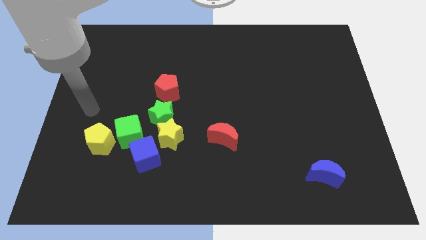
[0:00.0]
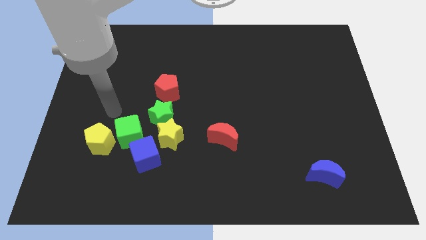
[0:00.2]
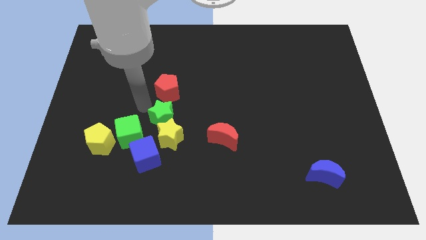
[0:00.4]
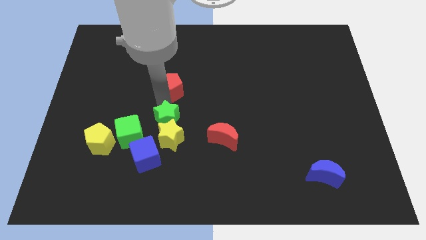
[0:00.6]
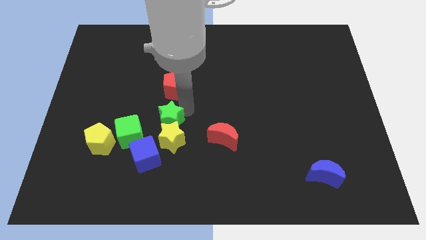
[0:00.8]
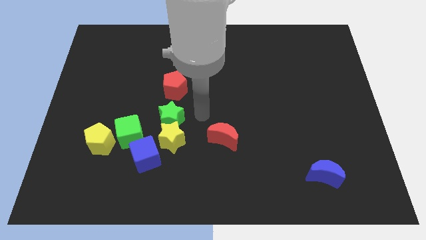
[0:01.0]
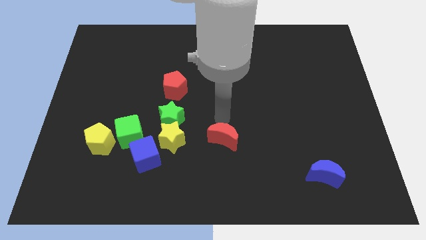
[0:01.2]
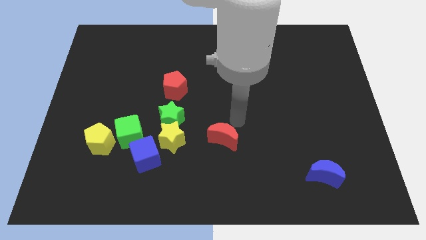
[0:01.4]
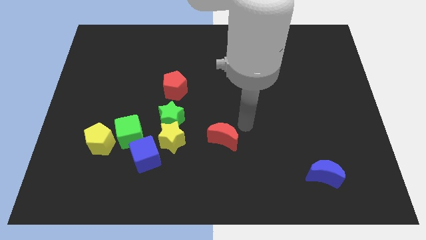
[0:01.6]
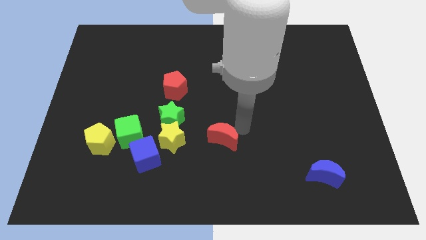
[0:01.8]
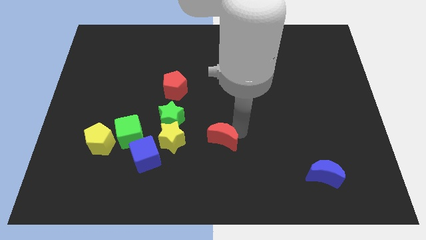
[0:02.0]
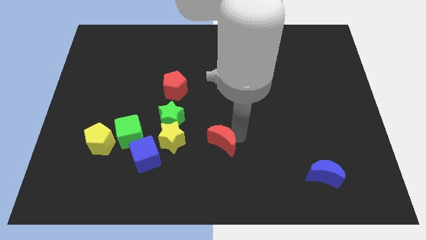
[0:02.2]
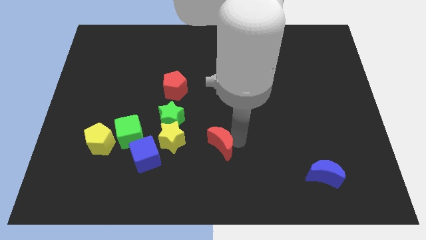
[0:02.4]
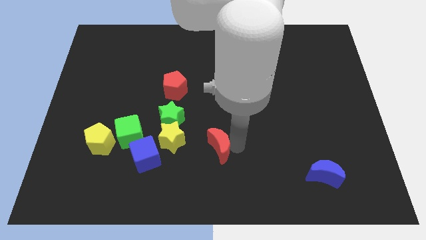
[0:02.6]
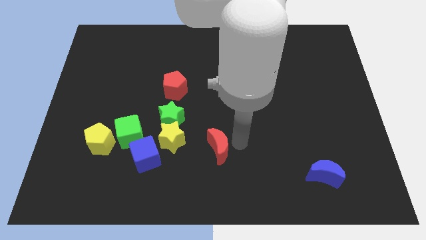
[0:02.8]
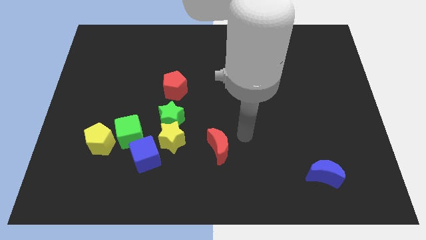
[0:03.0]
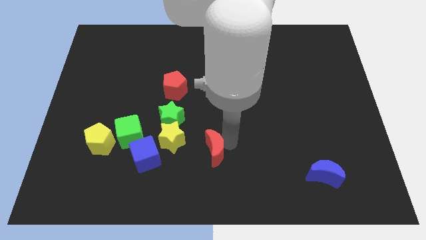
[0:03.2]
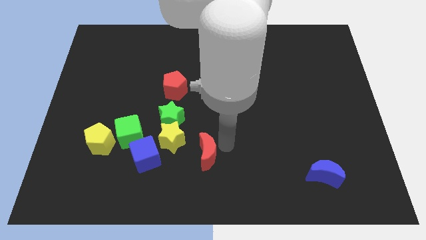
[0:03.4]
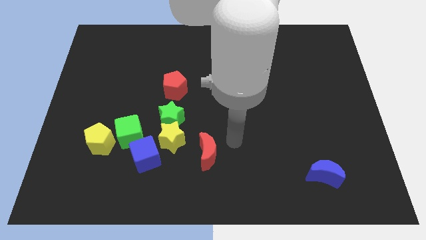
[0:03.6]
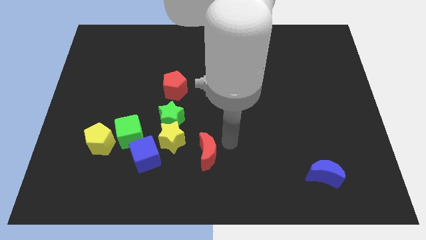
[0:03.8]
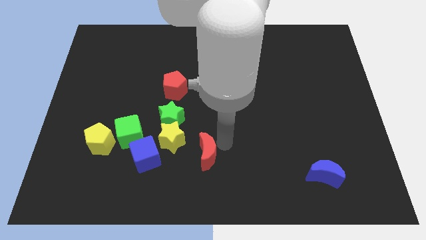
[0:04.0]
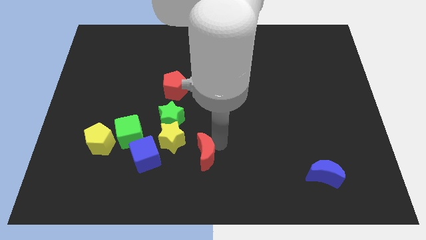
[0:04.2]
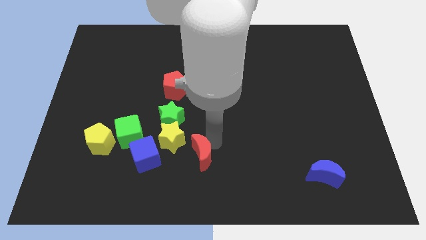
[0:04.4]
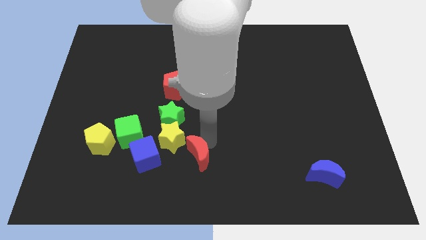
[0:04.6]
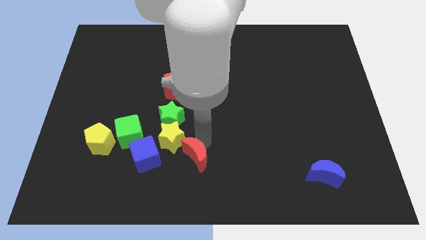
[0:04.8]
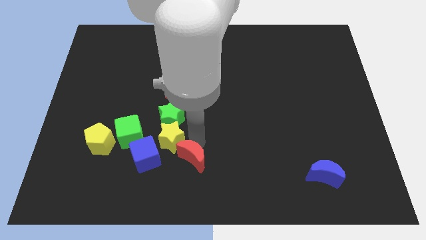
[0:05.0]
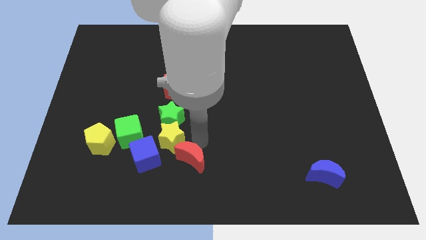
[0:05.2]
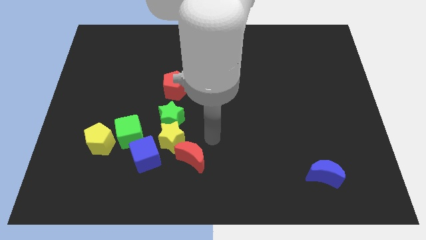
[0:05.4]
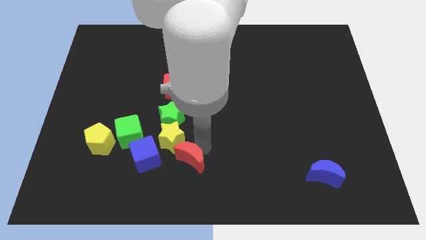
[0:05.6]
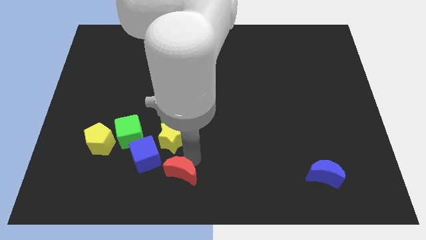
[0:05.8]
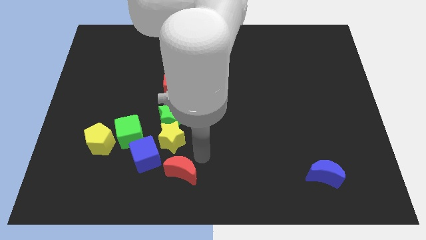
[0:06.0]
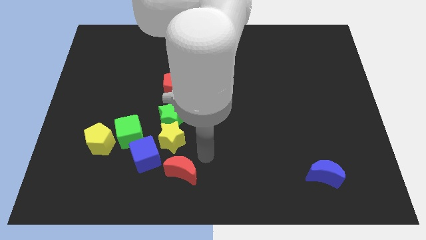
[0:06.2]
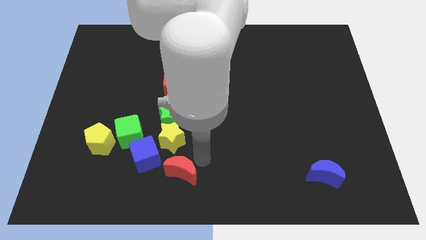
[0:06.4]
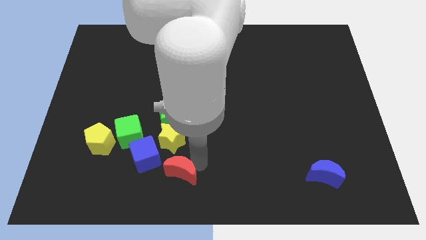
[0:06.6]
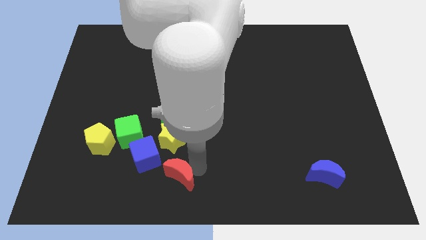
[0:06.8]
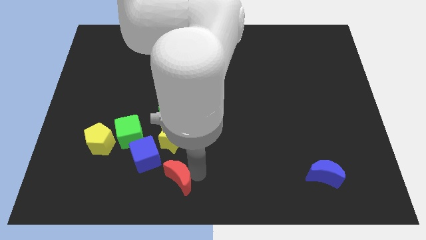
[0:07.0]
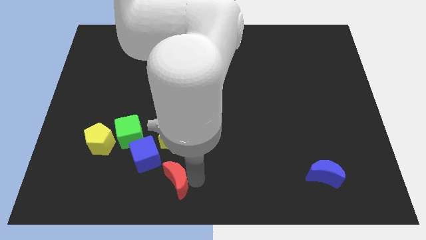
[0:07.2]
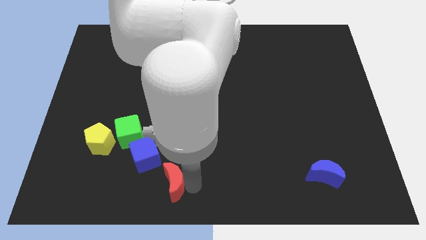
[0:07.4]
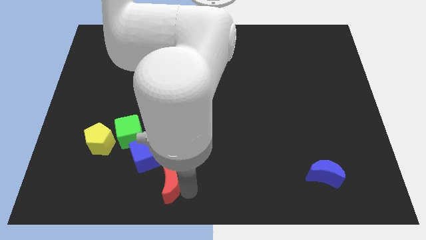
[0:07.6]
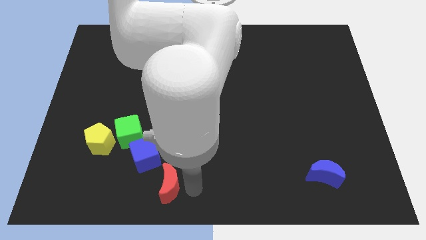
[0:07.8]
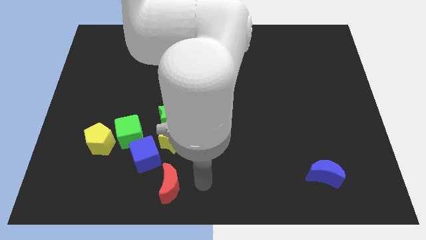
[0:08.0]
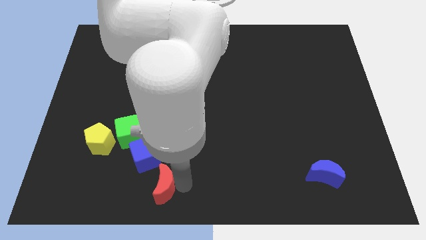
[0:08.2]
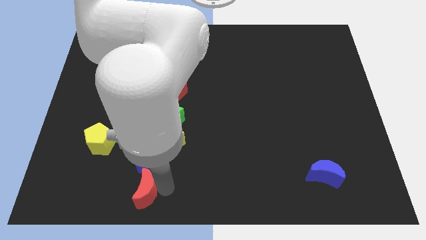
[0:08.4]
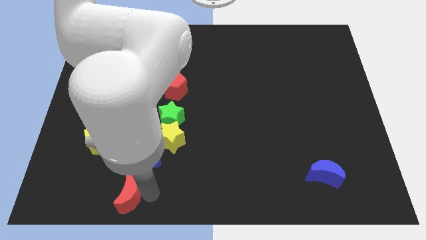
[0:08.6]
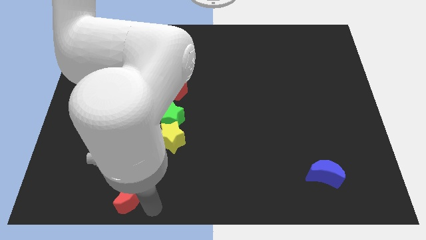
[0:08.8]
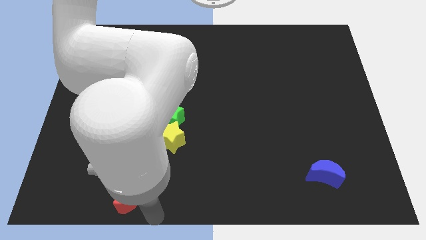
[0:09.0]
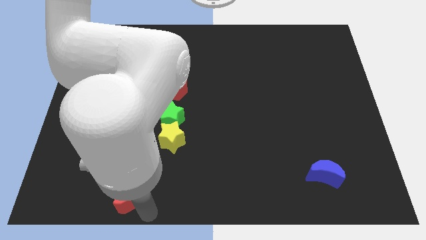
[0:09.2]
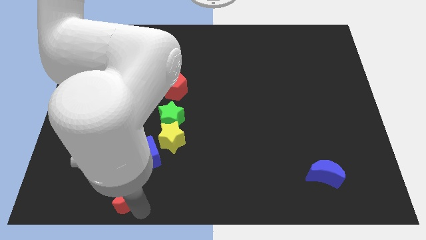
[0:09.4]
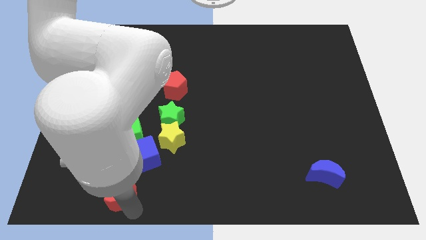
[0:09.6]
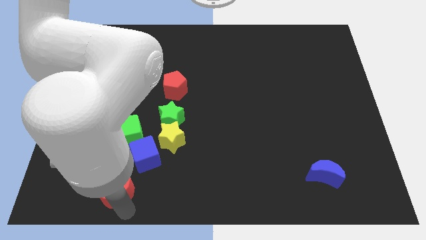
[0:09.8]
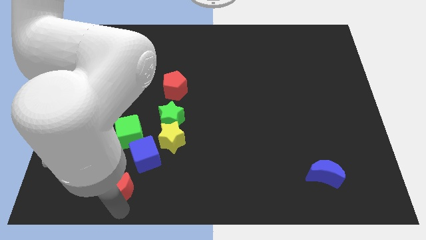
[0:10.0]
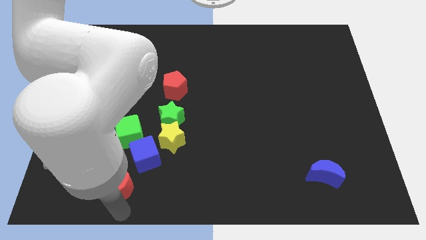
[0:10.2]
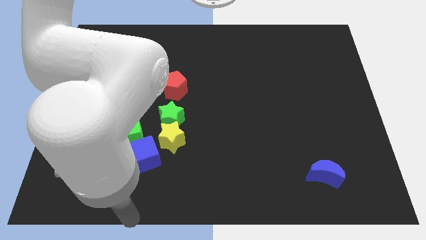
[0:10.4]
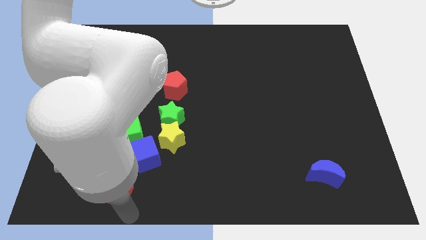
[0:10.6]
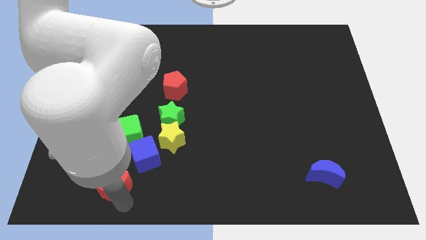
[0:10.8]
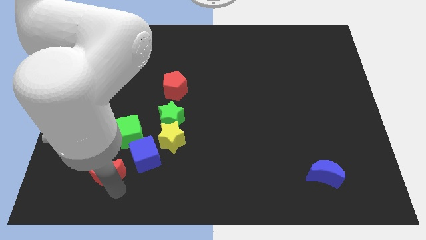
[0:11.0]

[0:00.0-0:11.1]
put the red moon to the left side of the blue cube
